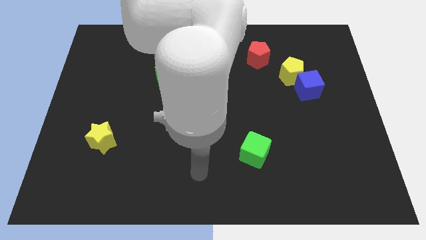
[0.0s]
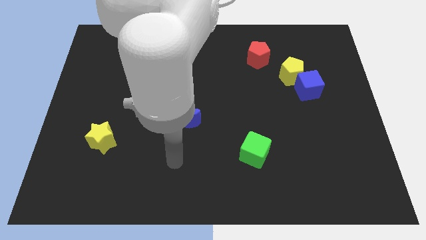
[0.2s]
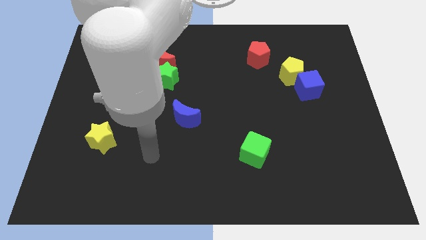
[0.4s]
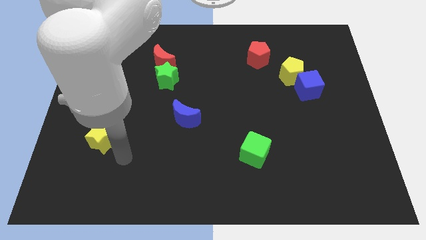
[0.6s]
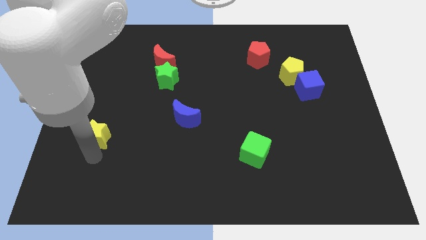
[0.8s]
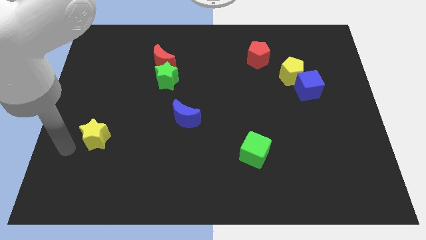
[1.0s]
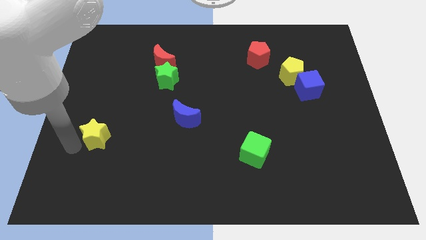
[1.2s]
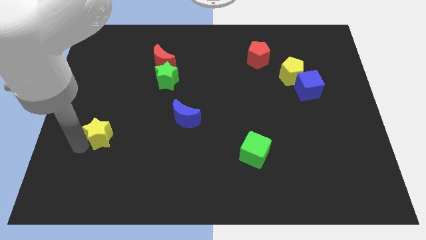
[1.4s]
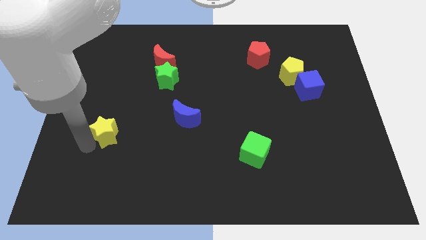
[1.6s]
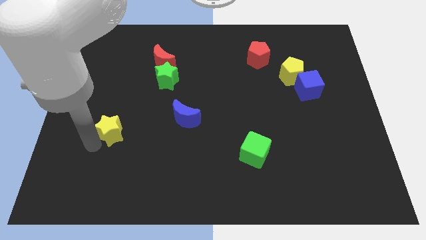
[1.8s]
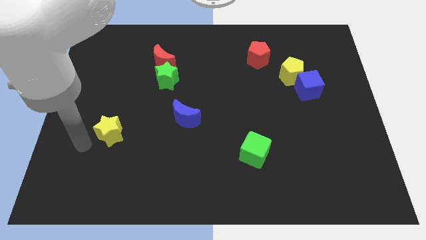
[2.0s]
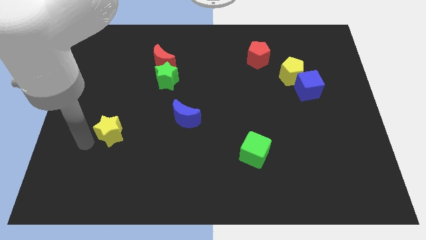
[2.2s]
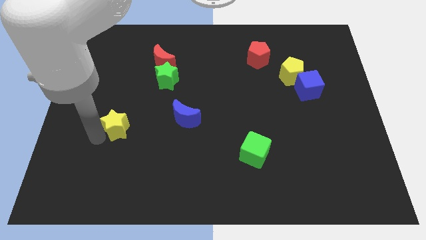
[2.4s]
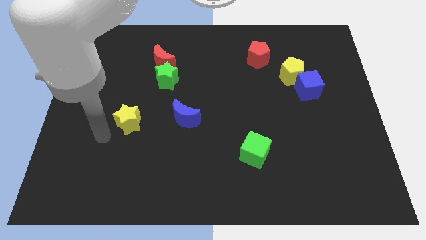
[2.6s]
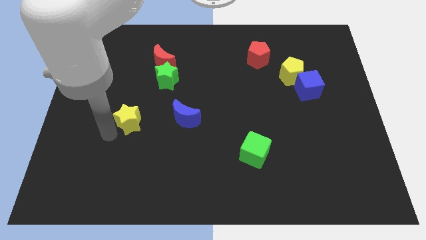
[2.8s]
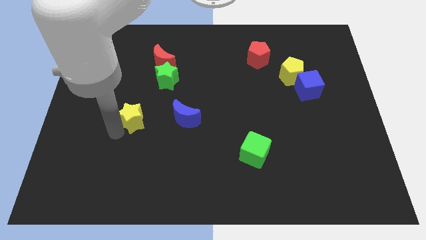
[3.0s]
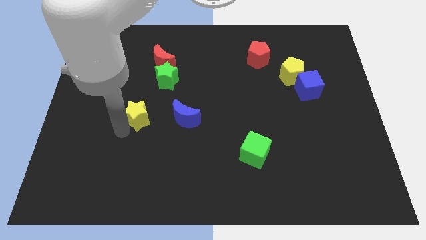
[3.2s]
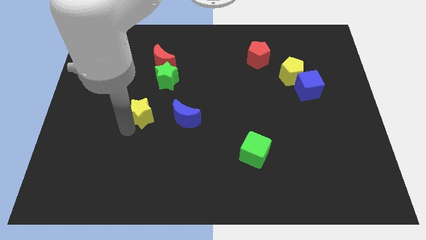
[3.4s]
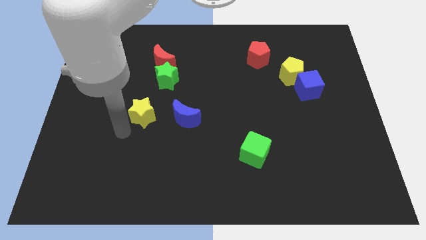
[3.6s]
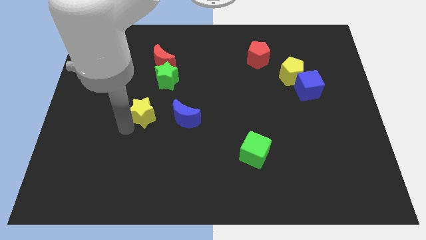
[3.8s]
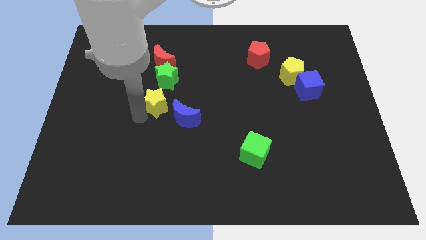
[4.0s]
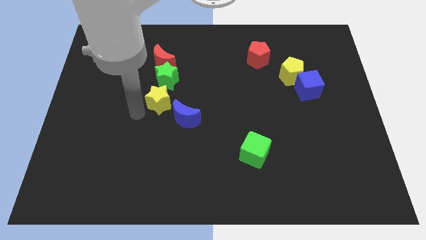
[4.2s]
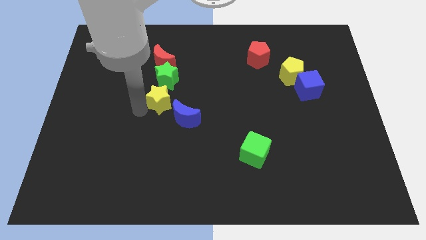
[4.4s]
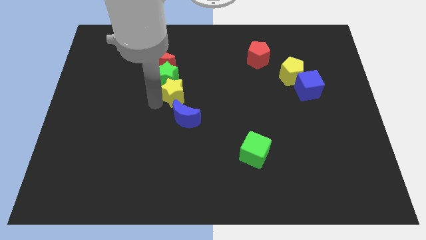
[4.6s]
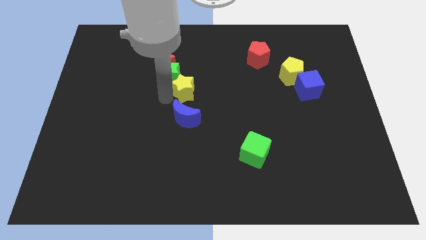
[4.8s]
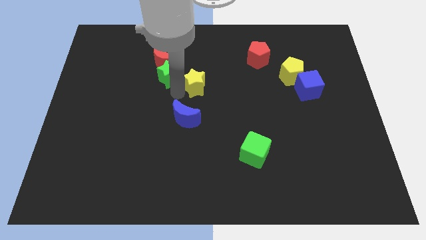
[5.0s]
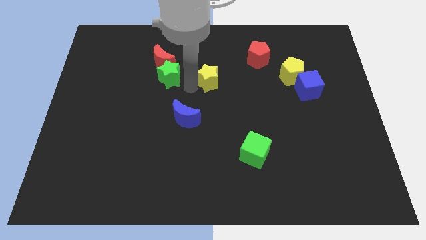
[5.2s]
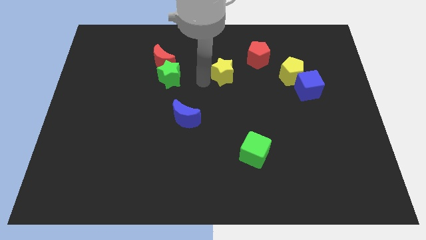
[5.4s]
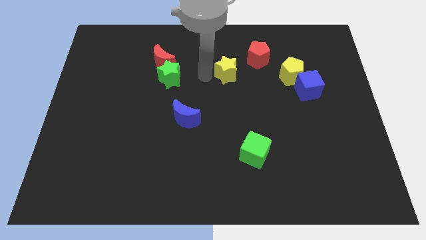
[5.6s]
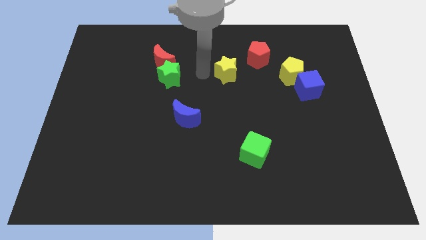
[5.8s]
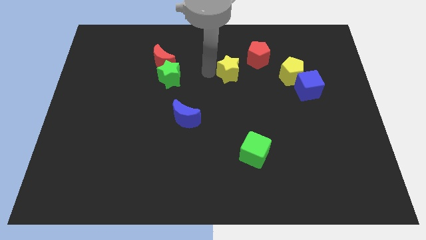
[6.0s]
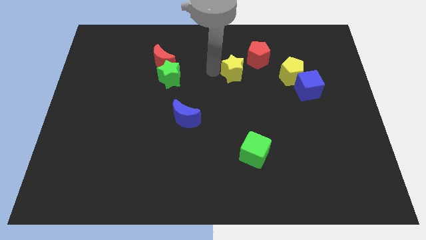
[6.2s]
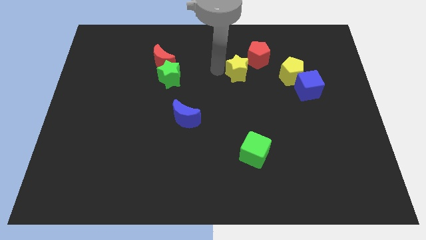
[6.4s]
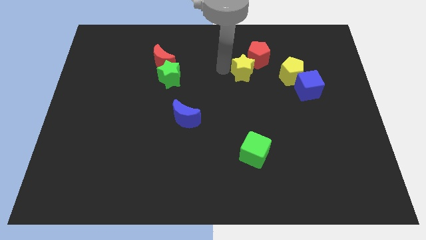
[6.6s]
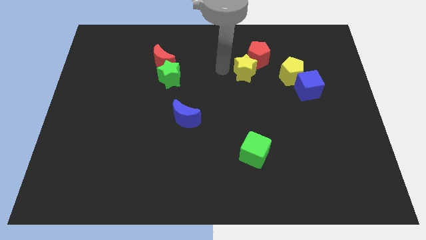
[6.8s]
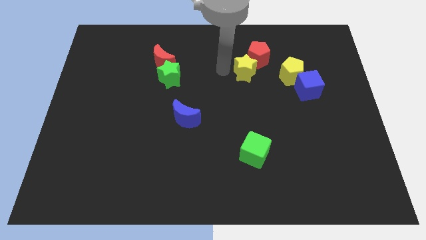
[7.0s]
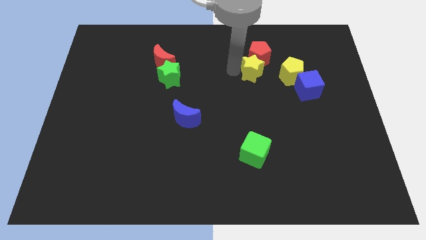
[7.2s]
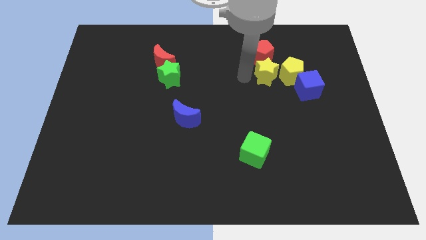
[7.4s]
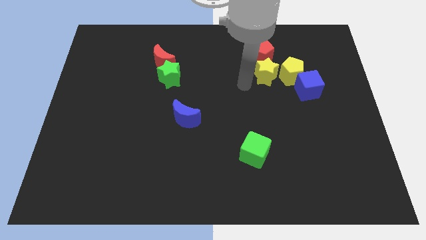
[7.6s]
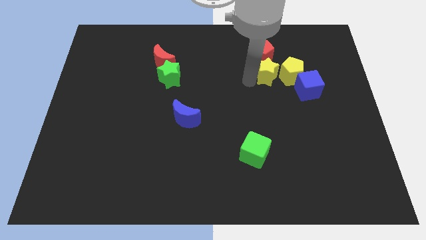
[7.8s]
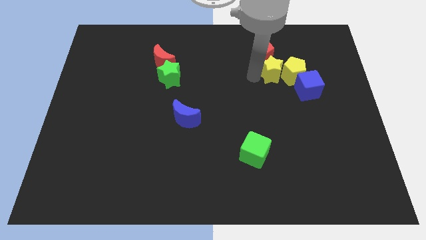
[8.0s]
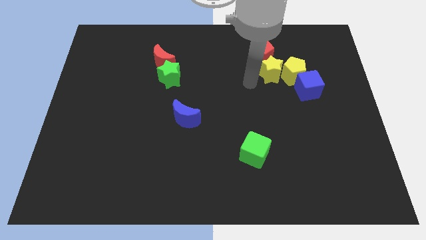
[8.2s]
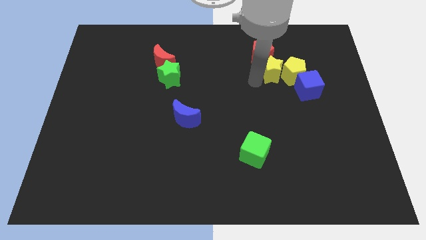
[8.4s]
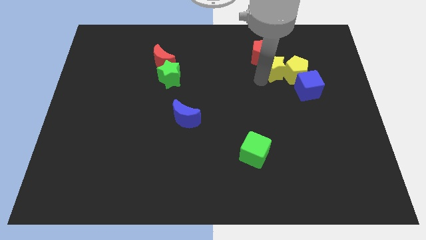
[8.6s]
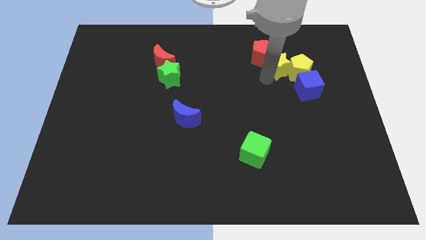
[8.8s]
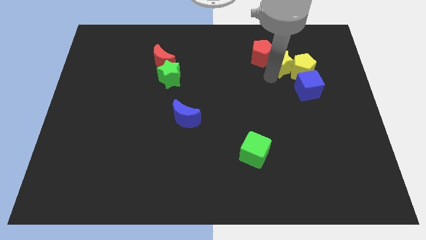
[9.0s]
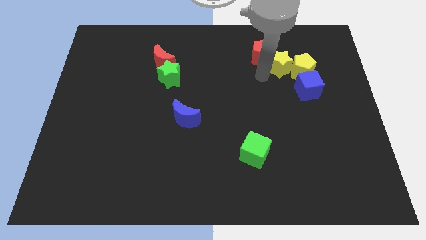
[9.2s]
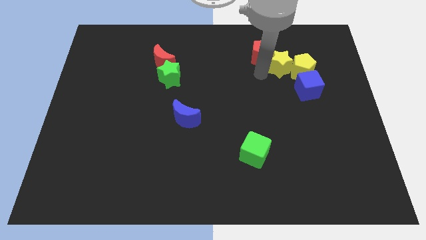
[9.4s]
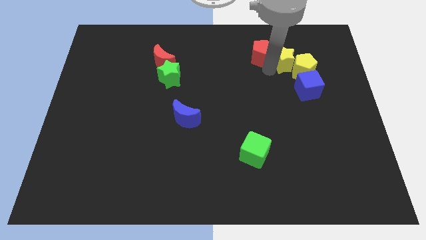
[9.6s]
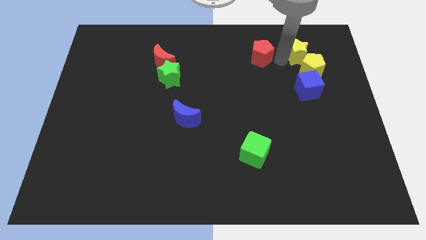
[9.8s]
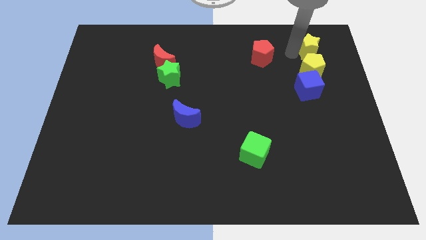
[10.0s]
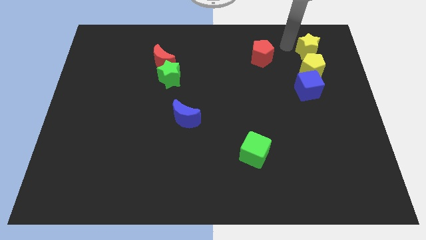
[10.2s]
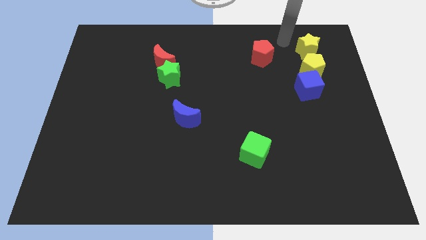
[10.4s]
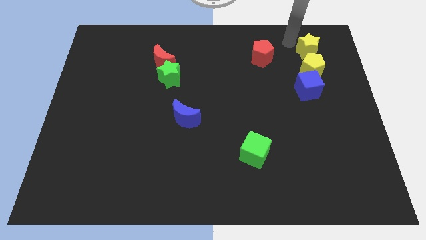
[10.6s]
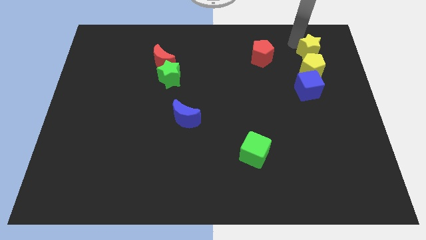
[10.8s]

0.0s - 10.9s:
move the yellow star to the top right side of the yellow pentagon

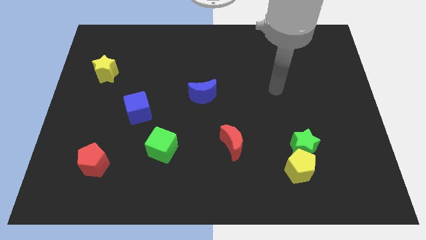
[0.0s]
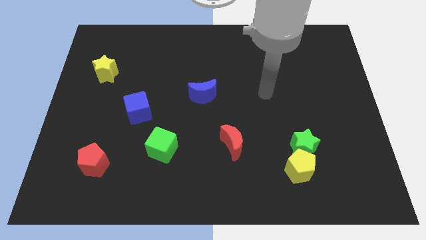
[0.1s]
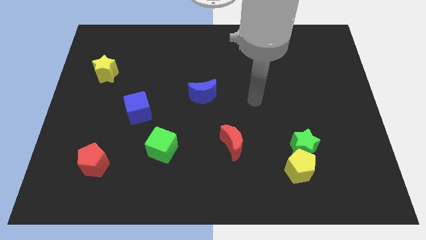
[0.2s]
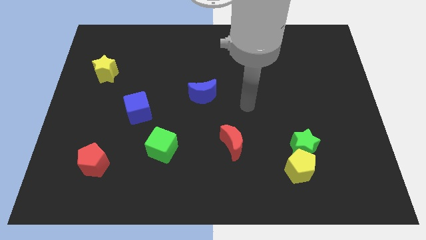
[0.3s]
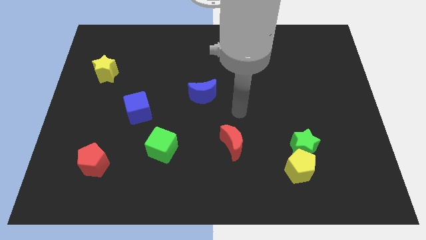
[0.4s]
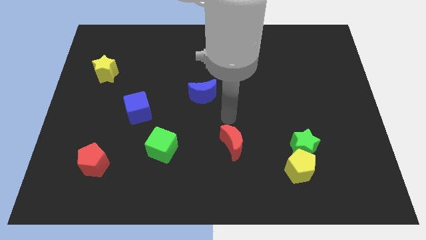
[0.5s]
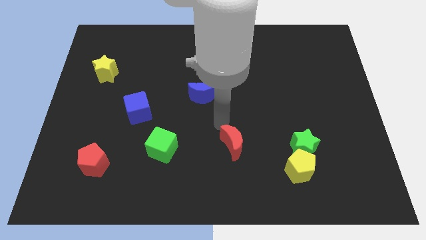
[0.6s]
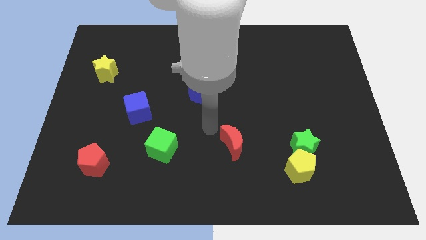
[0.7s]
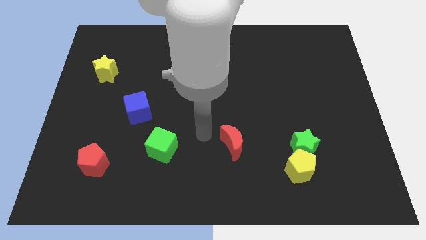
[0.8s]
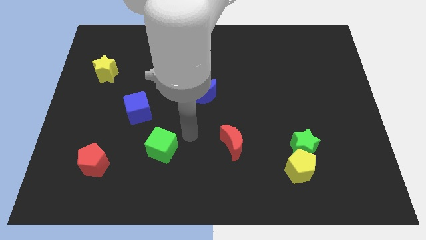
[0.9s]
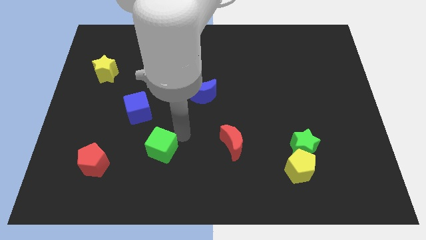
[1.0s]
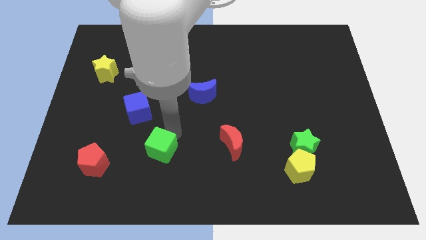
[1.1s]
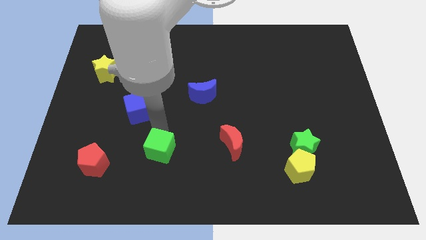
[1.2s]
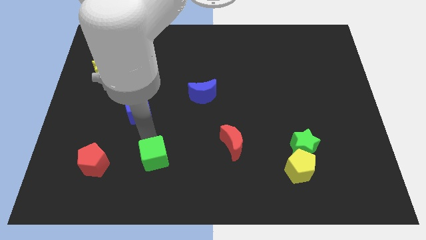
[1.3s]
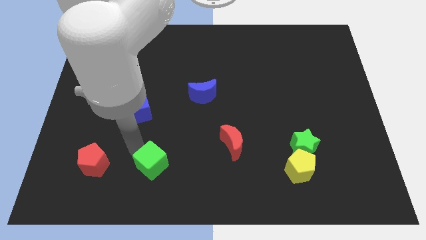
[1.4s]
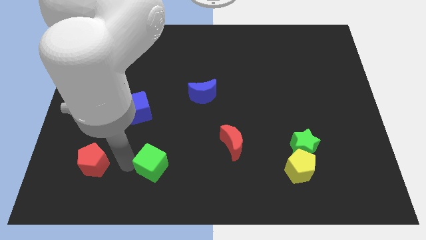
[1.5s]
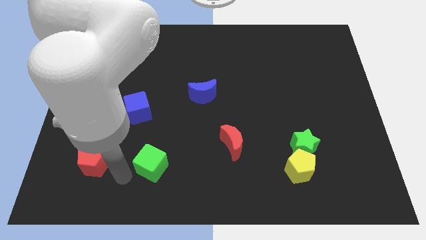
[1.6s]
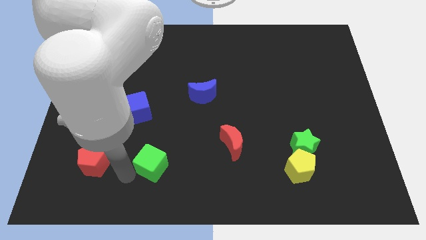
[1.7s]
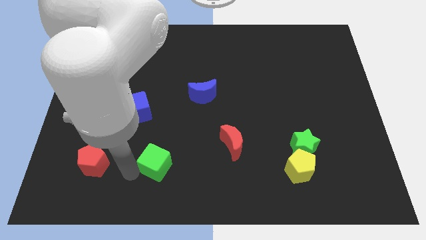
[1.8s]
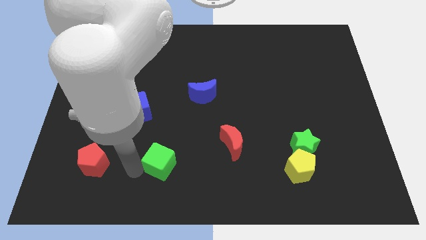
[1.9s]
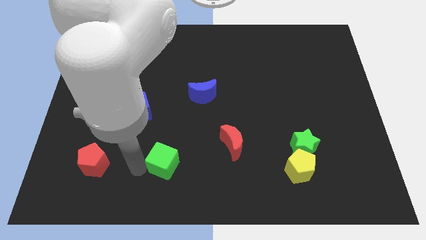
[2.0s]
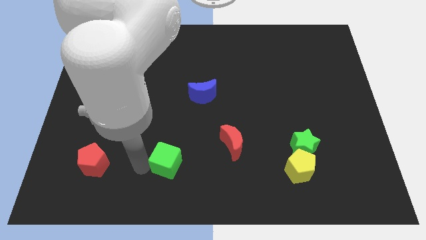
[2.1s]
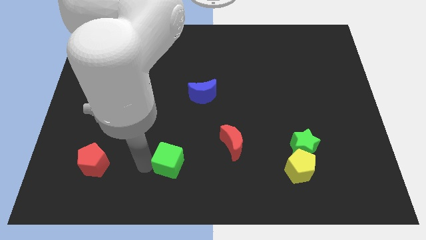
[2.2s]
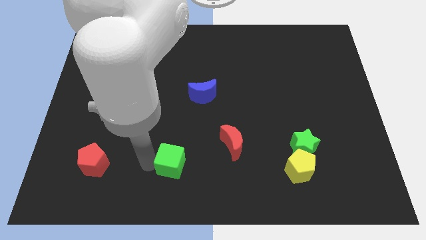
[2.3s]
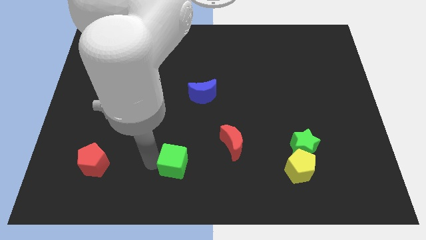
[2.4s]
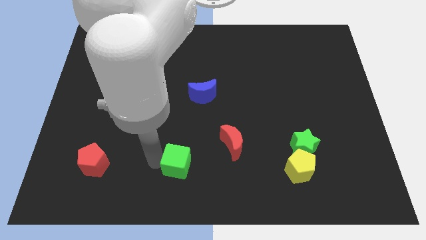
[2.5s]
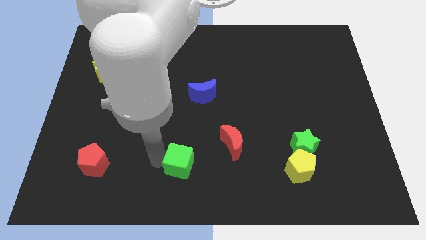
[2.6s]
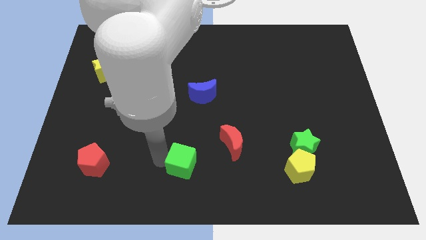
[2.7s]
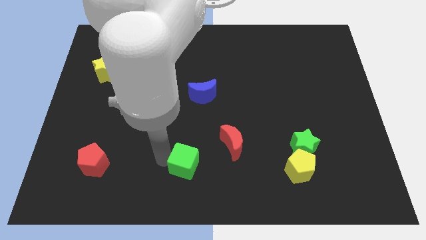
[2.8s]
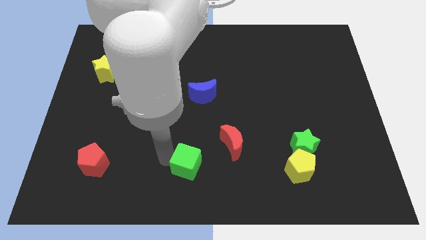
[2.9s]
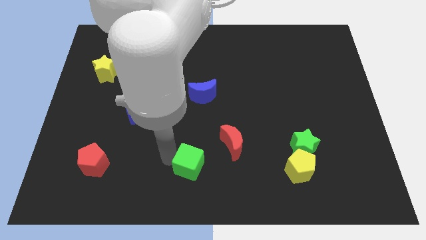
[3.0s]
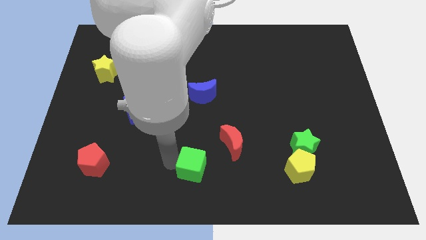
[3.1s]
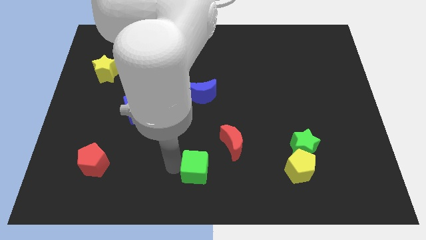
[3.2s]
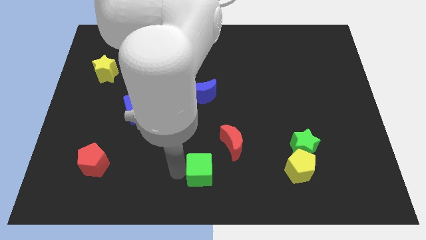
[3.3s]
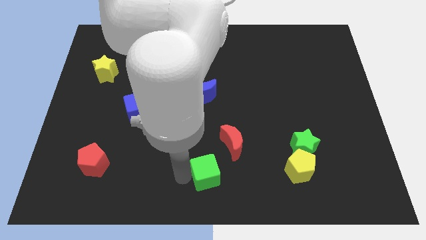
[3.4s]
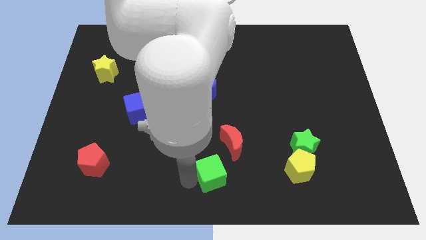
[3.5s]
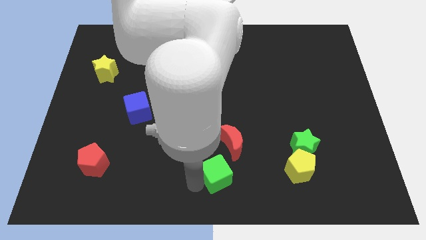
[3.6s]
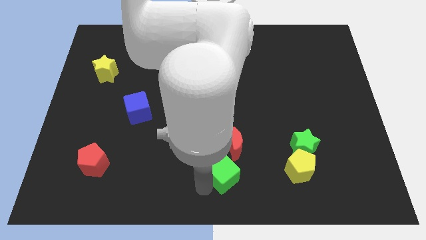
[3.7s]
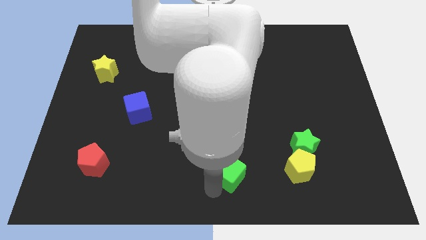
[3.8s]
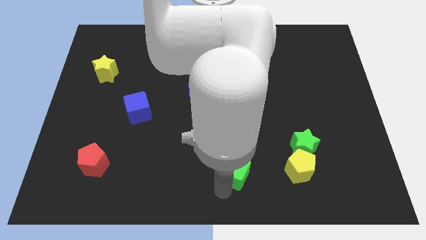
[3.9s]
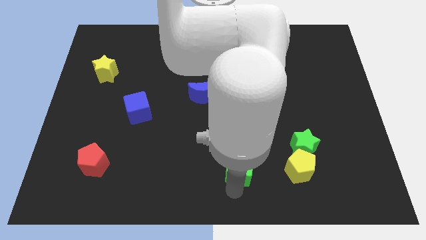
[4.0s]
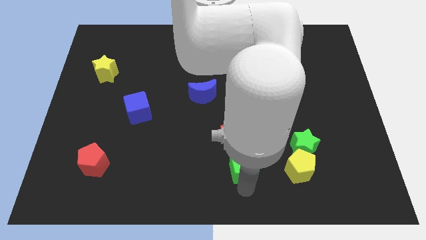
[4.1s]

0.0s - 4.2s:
push the green cube to the left of the green star
